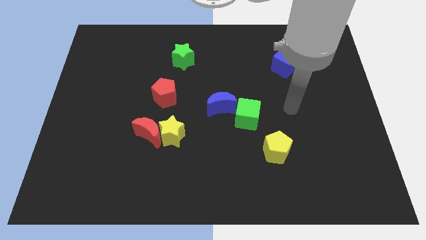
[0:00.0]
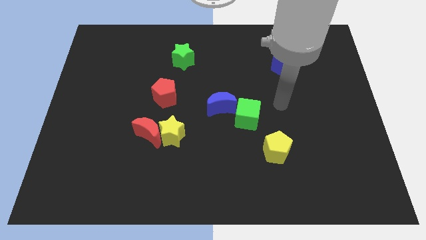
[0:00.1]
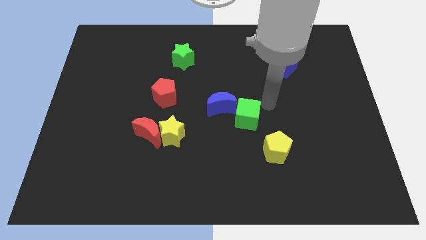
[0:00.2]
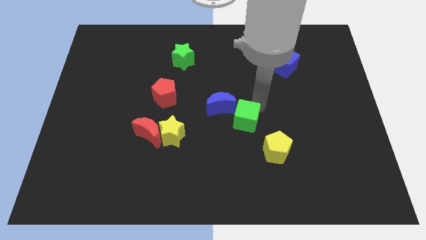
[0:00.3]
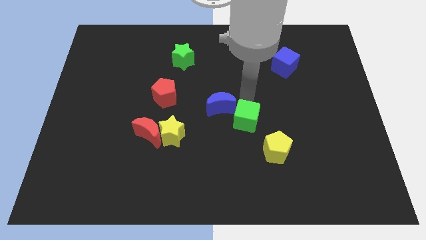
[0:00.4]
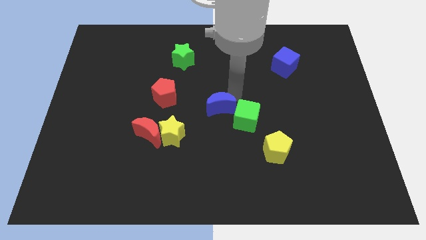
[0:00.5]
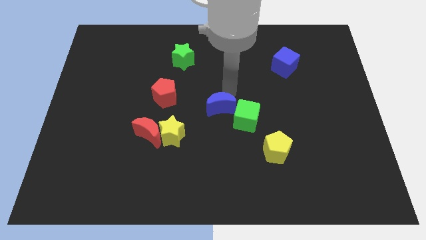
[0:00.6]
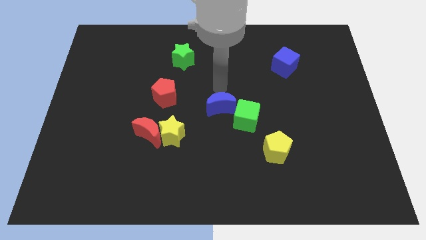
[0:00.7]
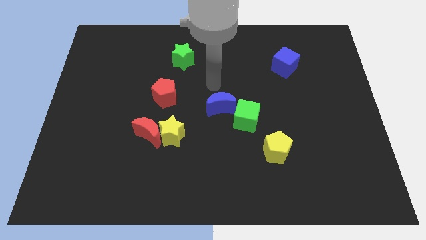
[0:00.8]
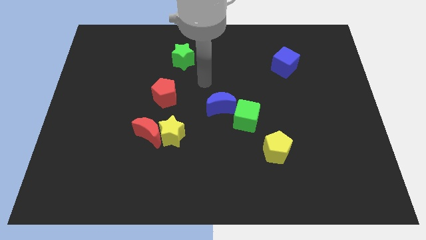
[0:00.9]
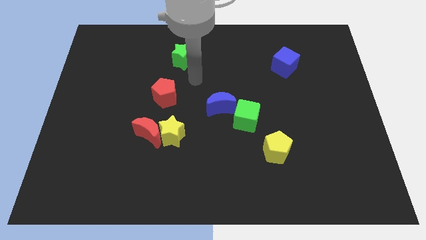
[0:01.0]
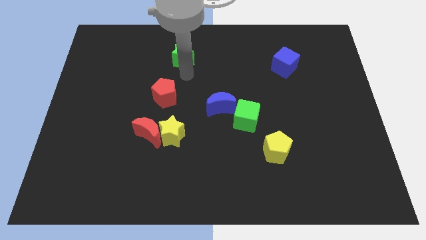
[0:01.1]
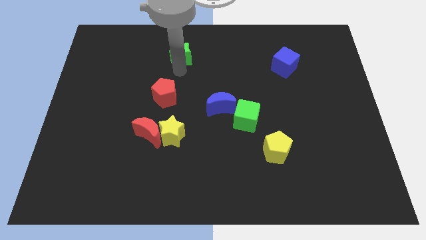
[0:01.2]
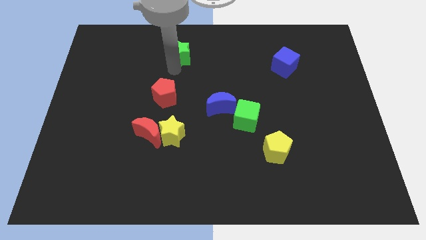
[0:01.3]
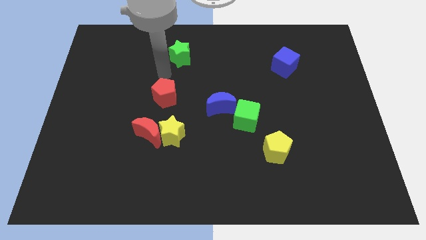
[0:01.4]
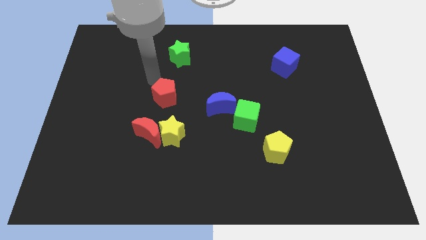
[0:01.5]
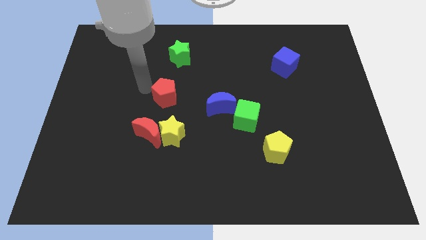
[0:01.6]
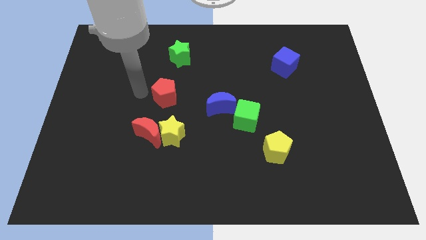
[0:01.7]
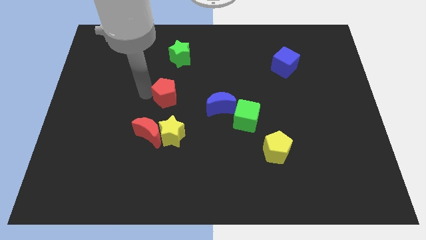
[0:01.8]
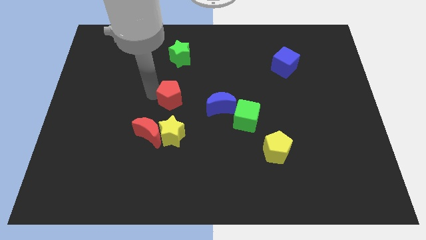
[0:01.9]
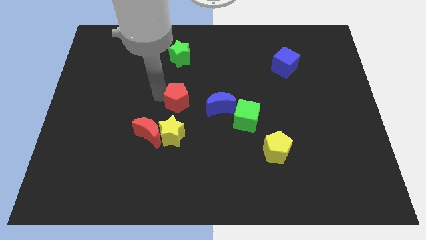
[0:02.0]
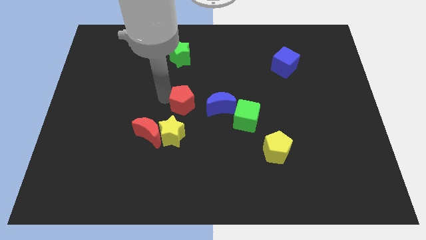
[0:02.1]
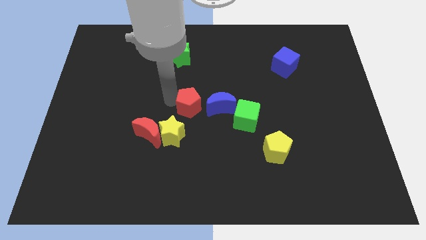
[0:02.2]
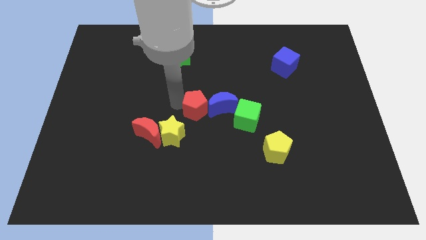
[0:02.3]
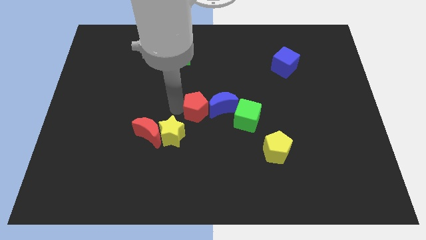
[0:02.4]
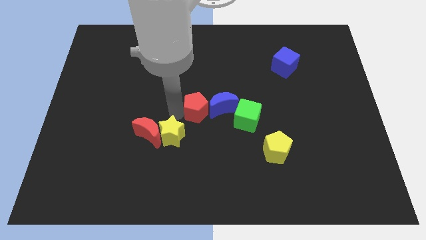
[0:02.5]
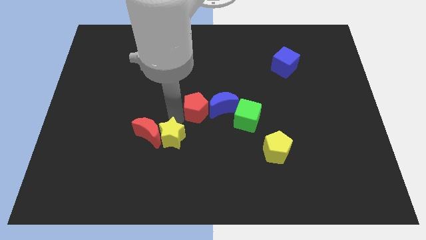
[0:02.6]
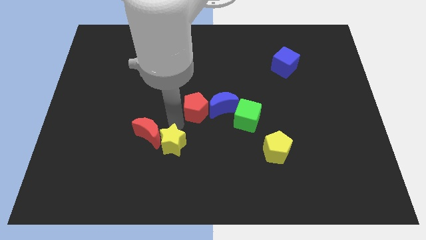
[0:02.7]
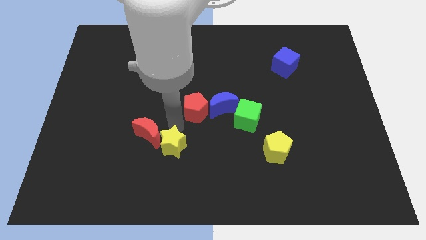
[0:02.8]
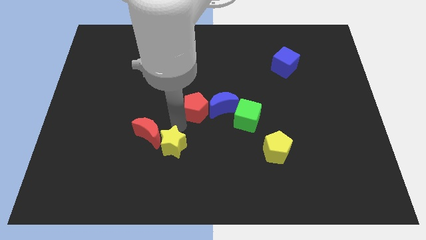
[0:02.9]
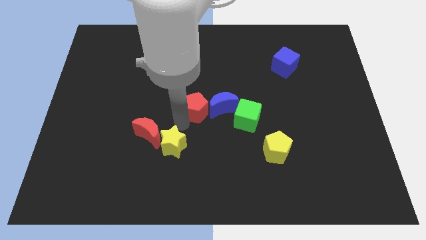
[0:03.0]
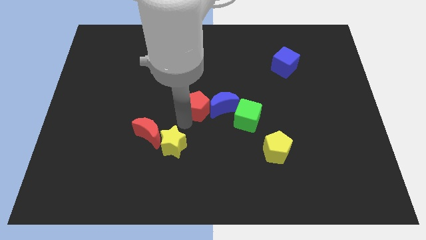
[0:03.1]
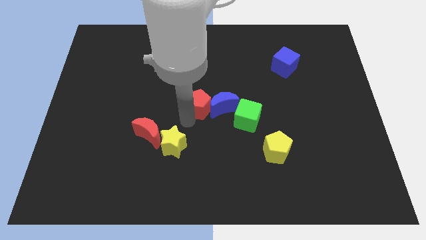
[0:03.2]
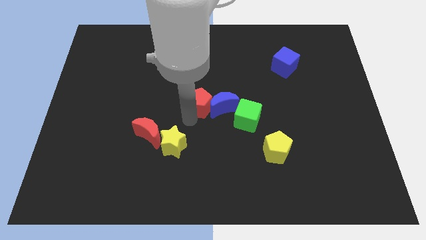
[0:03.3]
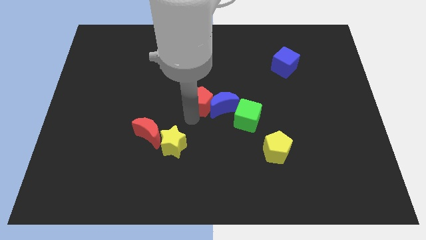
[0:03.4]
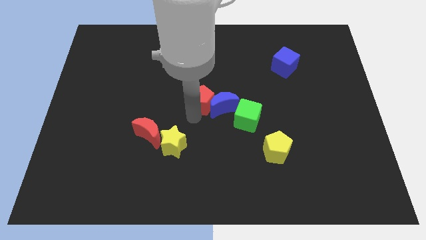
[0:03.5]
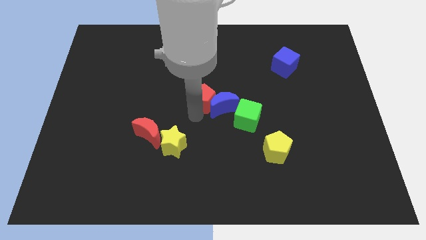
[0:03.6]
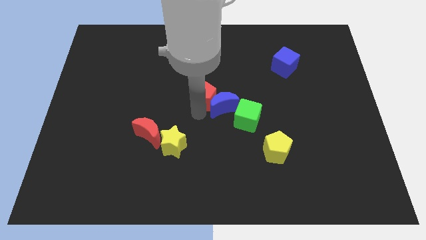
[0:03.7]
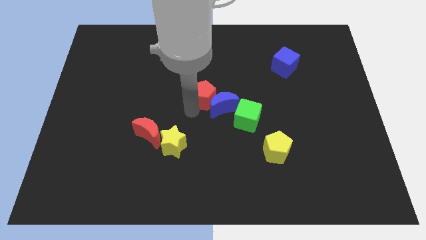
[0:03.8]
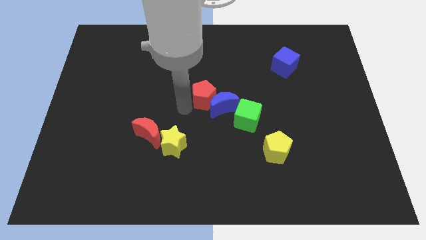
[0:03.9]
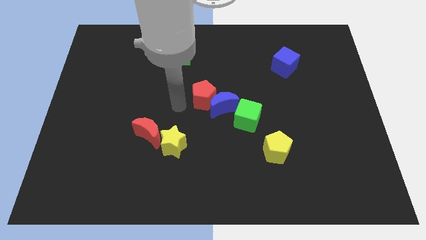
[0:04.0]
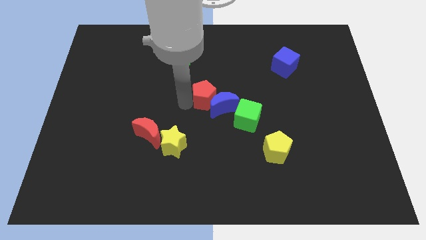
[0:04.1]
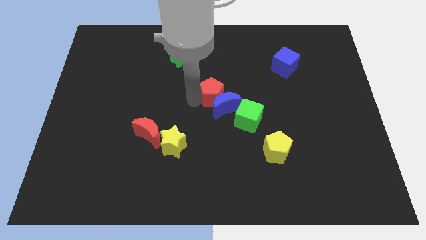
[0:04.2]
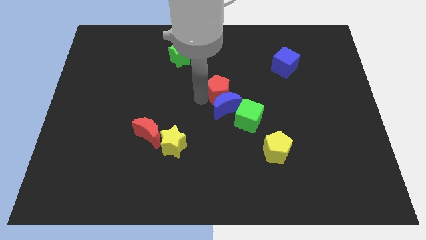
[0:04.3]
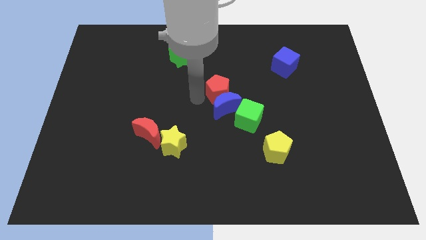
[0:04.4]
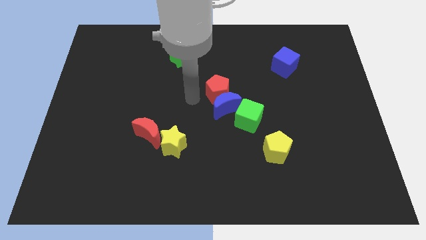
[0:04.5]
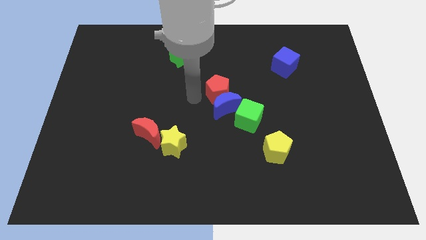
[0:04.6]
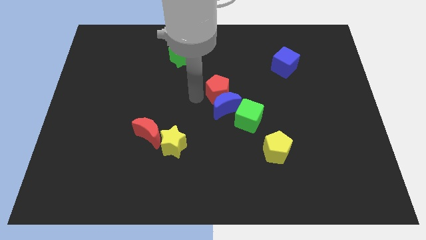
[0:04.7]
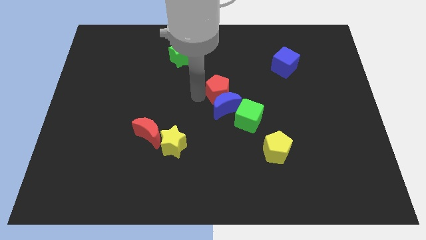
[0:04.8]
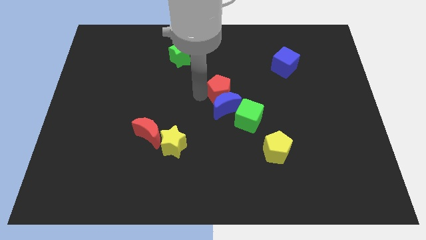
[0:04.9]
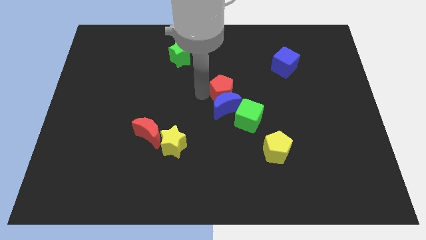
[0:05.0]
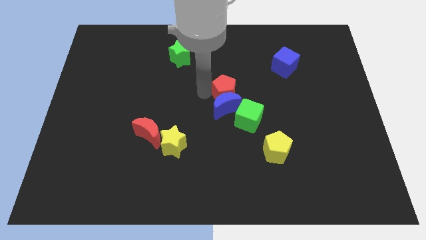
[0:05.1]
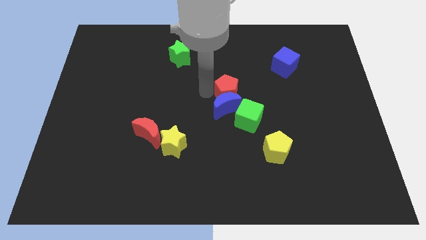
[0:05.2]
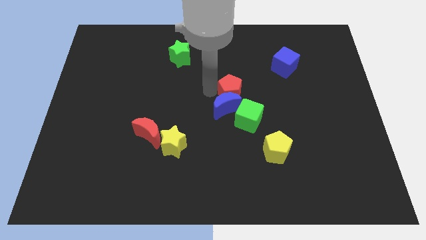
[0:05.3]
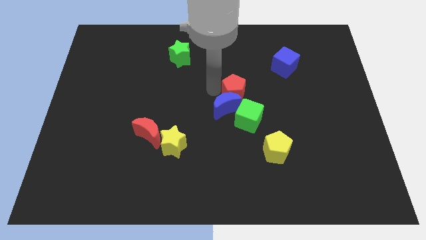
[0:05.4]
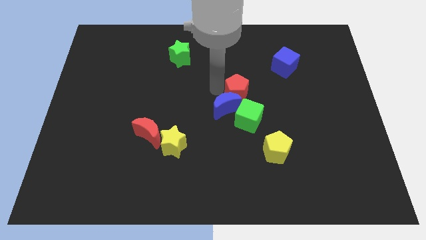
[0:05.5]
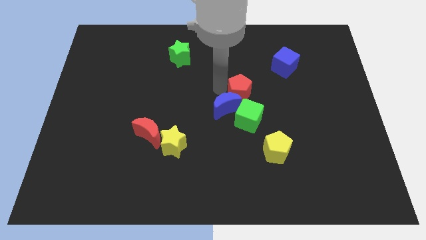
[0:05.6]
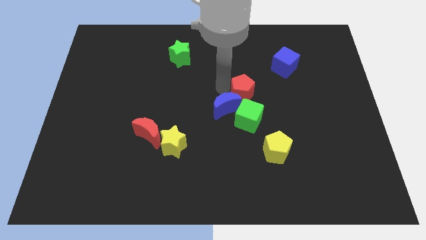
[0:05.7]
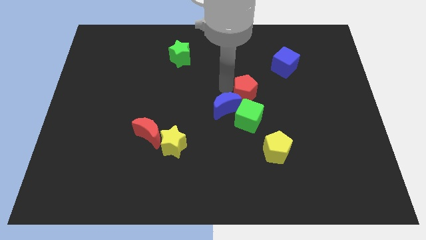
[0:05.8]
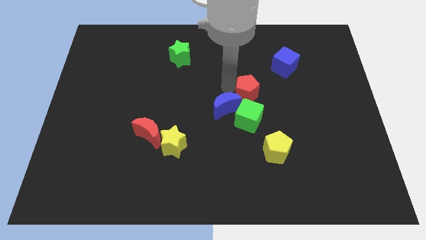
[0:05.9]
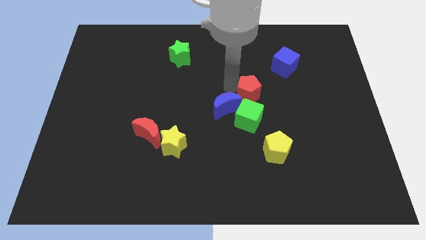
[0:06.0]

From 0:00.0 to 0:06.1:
move the red pentagon right

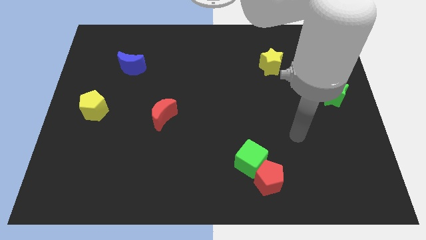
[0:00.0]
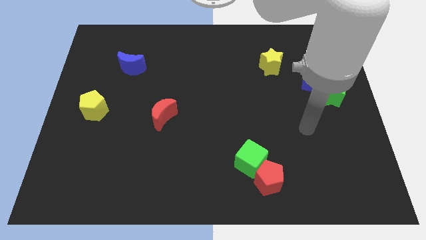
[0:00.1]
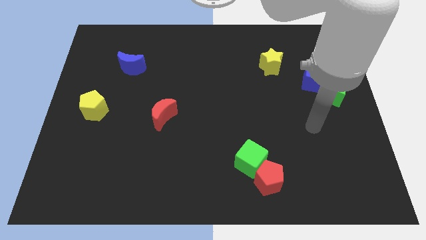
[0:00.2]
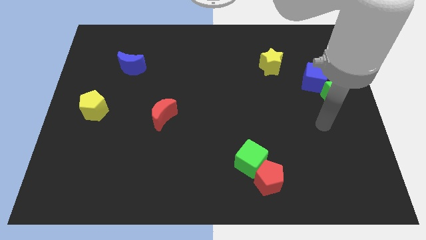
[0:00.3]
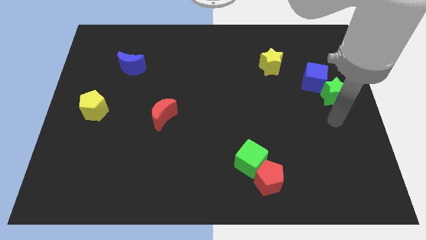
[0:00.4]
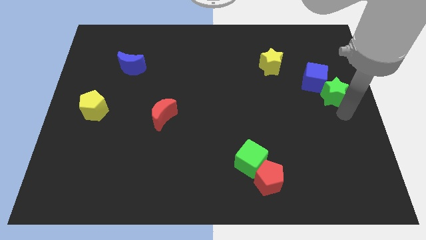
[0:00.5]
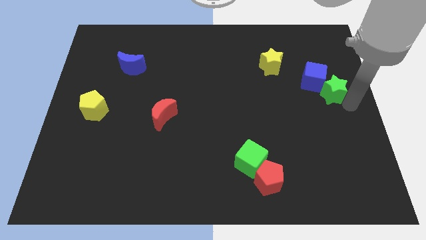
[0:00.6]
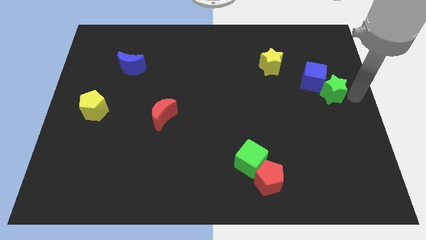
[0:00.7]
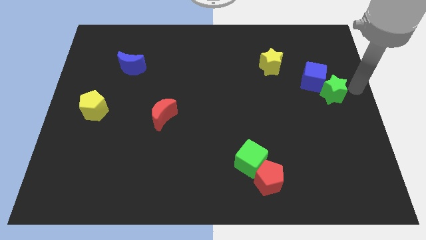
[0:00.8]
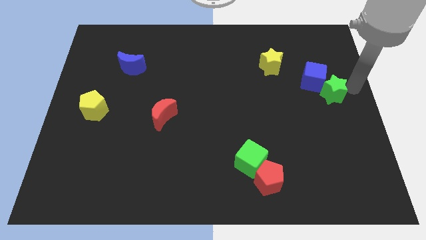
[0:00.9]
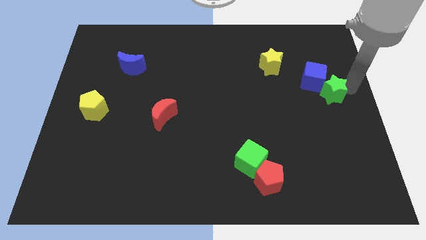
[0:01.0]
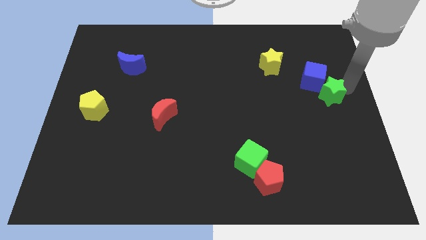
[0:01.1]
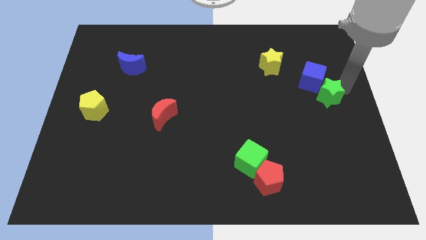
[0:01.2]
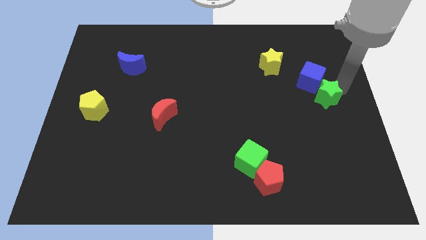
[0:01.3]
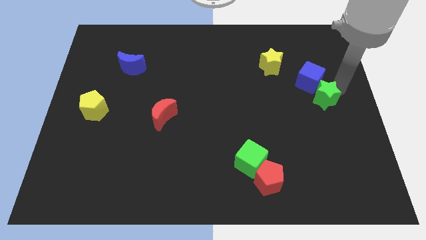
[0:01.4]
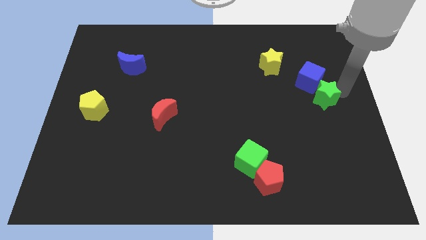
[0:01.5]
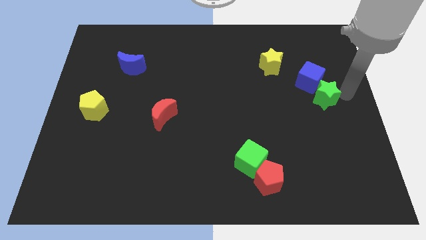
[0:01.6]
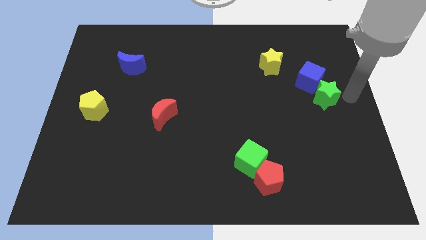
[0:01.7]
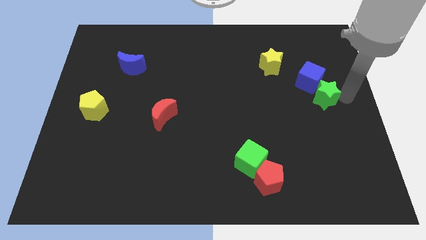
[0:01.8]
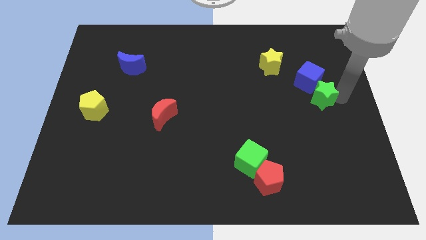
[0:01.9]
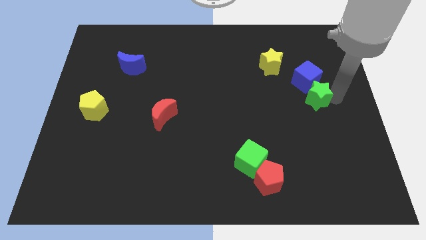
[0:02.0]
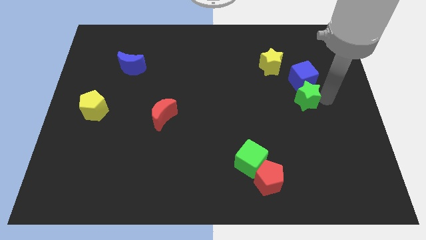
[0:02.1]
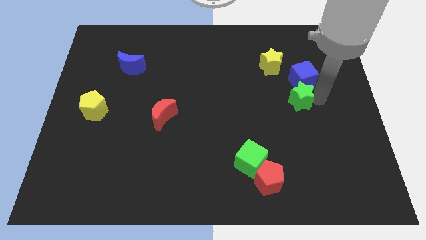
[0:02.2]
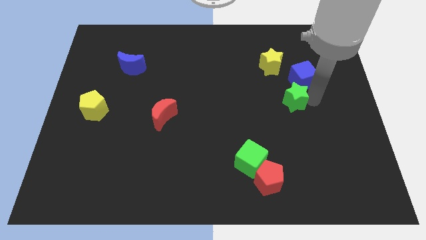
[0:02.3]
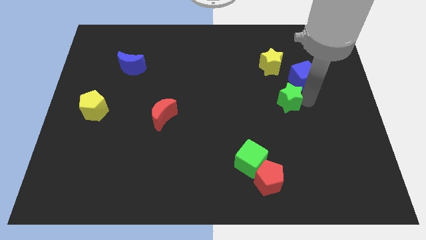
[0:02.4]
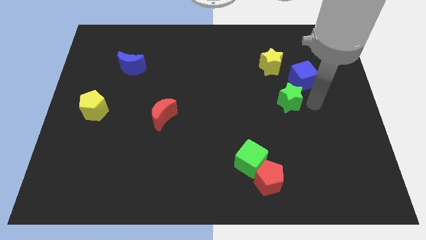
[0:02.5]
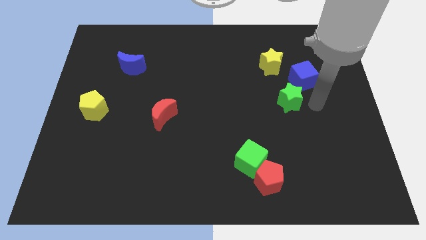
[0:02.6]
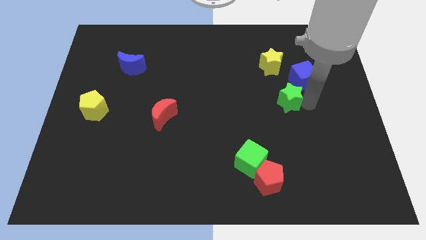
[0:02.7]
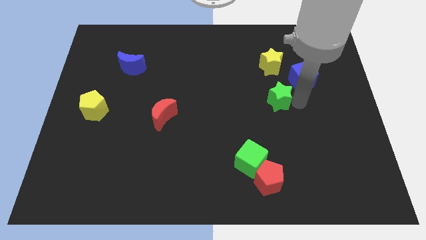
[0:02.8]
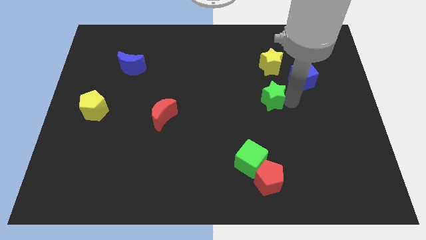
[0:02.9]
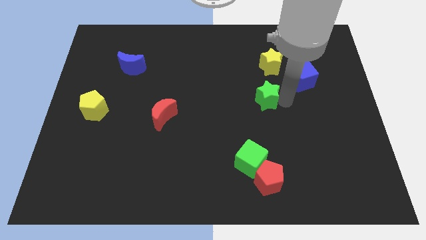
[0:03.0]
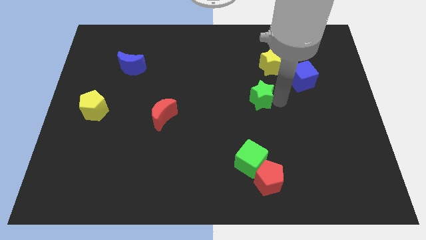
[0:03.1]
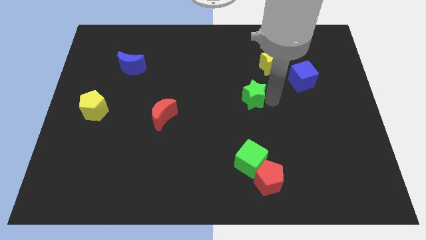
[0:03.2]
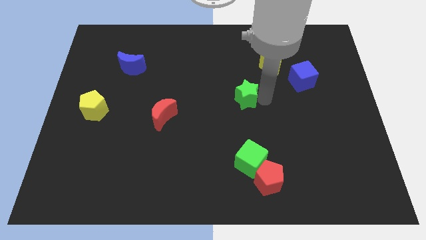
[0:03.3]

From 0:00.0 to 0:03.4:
slide the green star to the left
